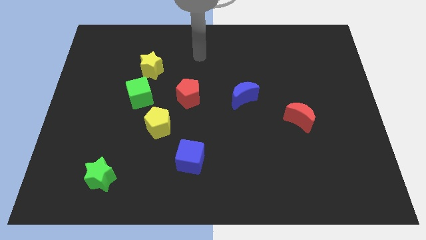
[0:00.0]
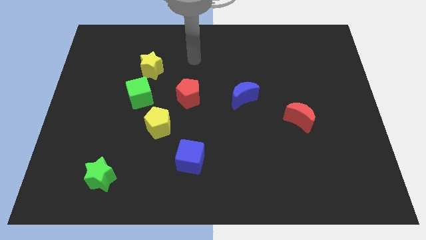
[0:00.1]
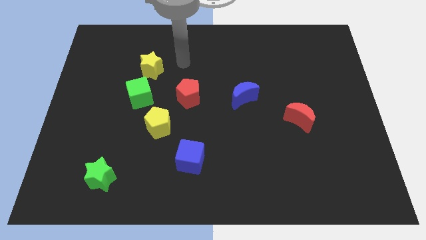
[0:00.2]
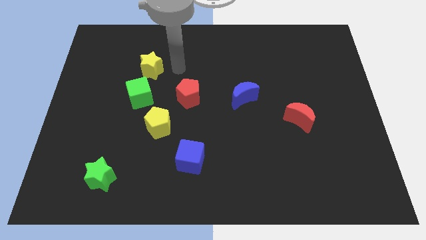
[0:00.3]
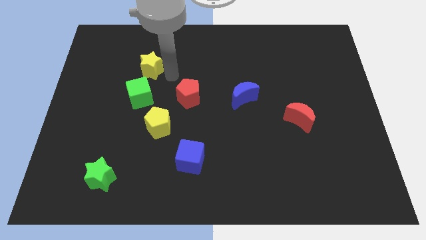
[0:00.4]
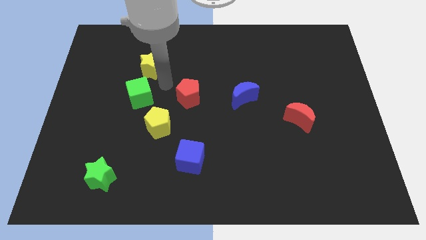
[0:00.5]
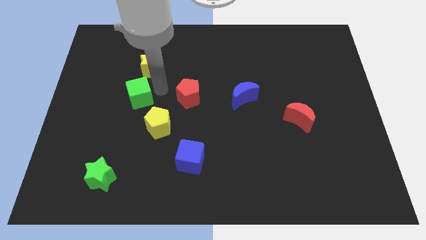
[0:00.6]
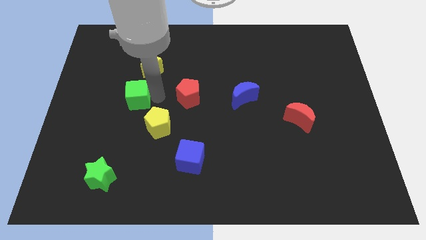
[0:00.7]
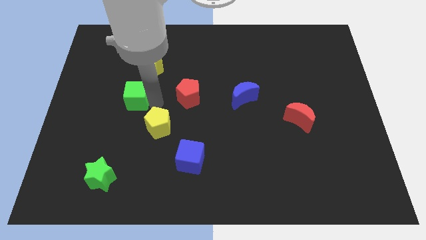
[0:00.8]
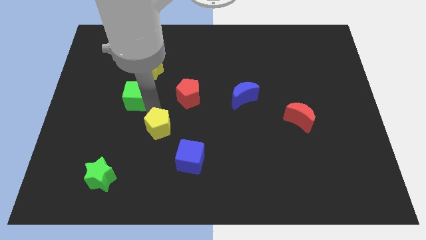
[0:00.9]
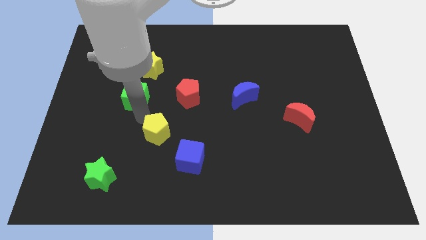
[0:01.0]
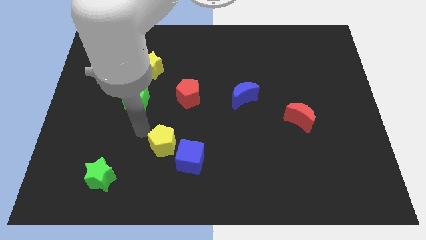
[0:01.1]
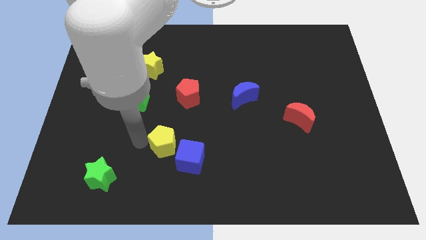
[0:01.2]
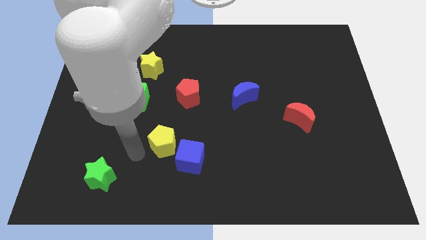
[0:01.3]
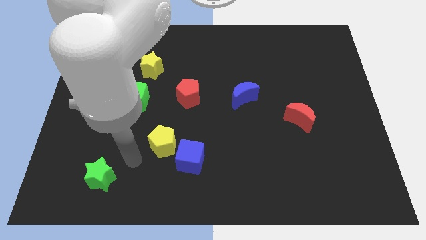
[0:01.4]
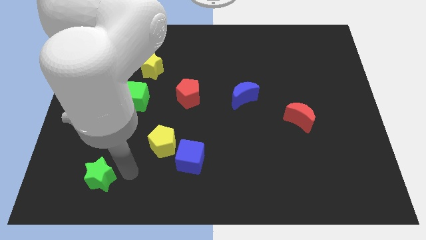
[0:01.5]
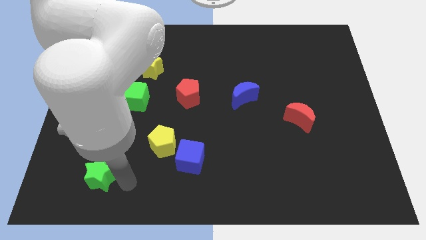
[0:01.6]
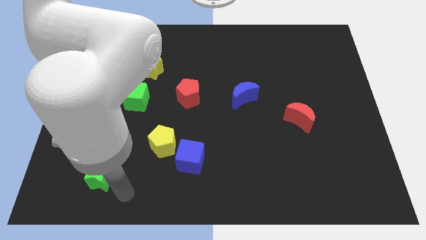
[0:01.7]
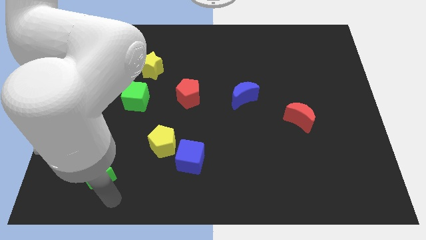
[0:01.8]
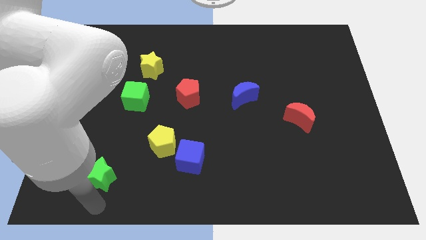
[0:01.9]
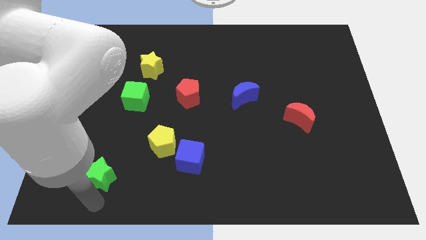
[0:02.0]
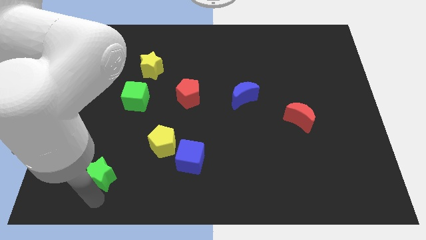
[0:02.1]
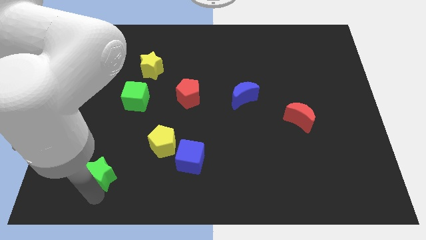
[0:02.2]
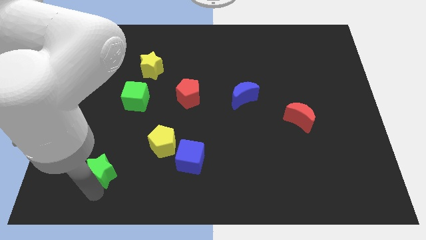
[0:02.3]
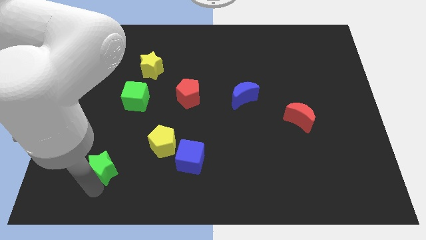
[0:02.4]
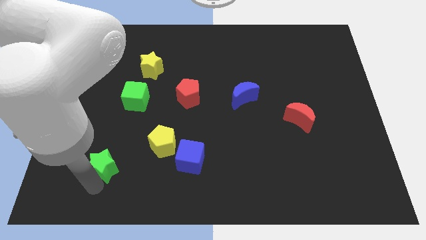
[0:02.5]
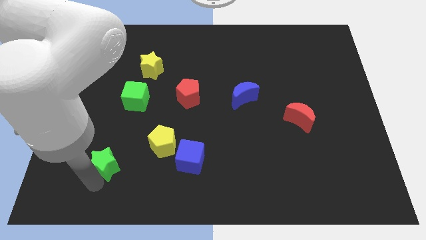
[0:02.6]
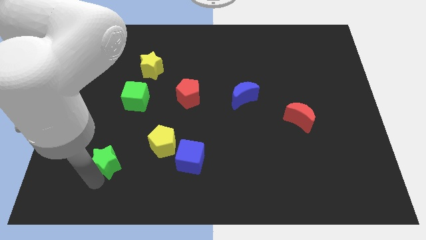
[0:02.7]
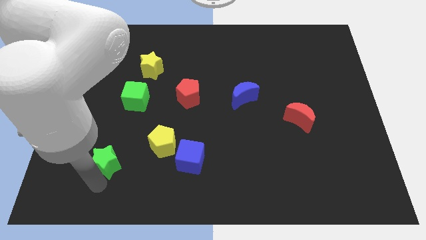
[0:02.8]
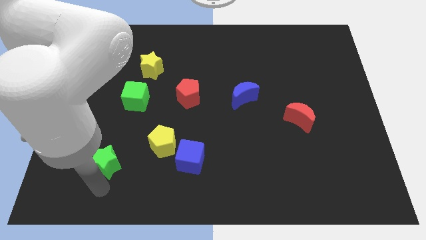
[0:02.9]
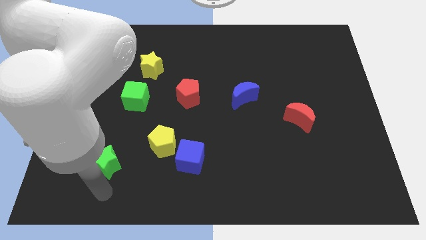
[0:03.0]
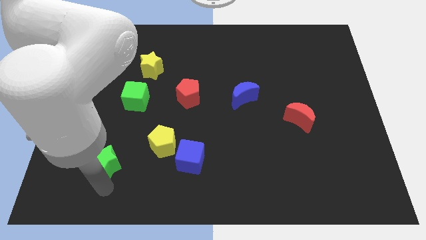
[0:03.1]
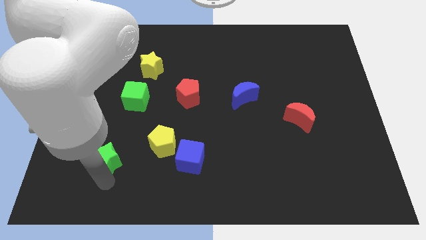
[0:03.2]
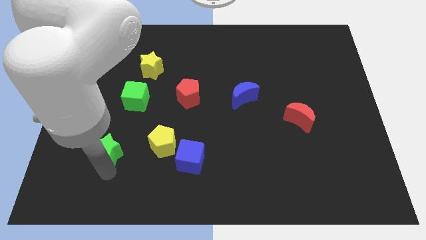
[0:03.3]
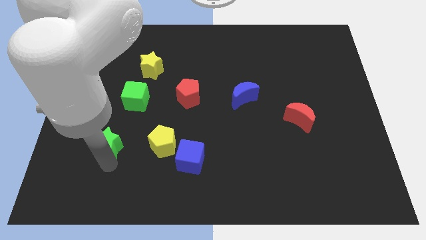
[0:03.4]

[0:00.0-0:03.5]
push the green star upwards a little bit

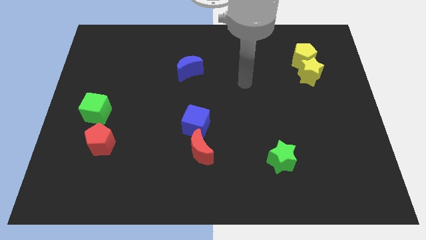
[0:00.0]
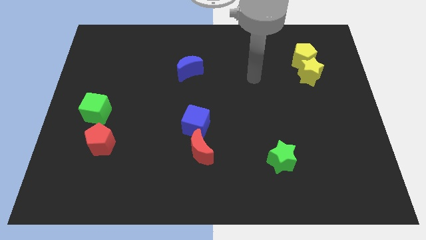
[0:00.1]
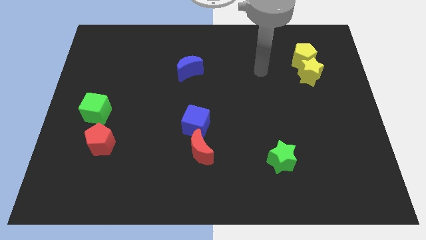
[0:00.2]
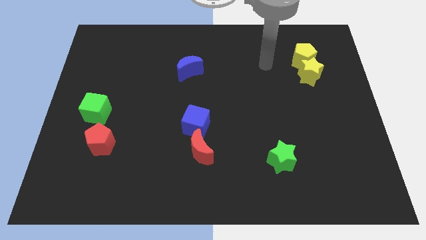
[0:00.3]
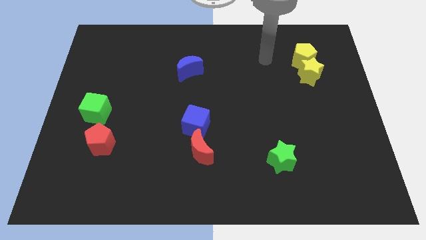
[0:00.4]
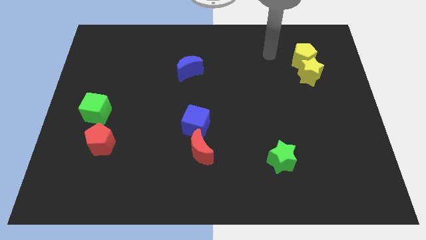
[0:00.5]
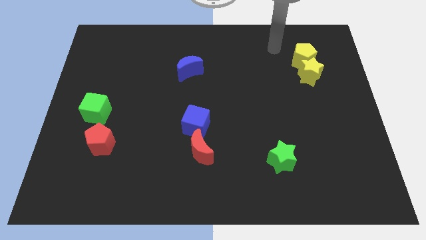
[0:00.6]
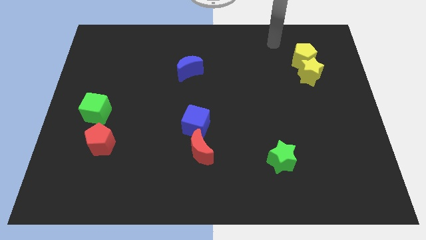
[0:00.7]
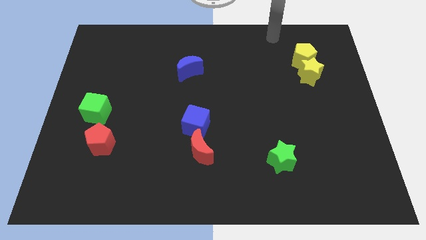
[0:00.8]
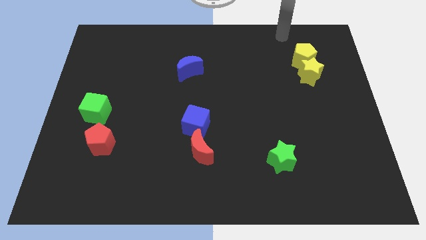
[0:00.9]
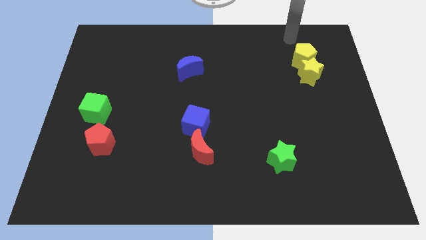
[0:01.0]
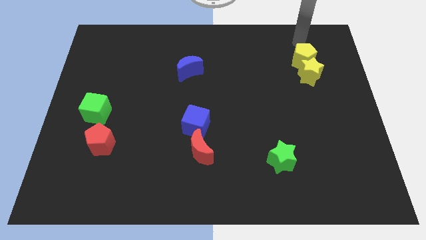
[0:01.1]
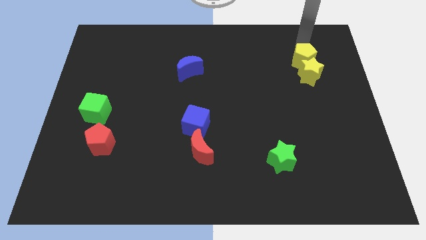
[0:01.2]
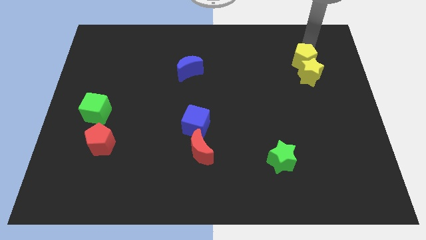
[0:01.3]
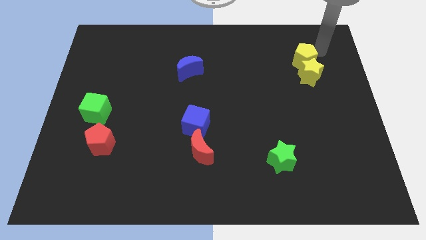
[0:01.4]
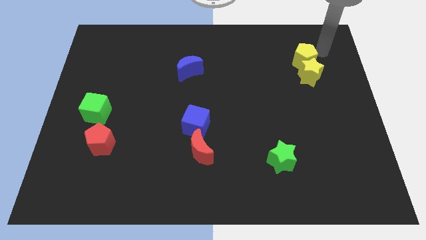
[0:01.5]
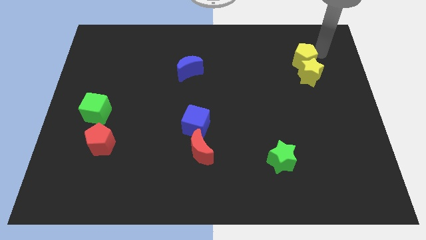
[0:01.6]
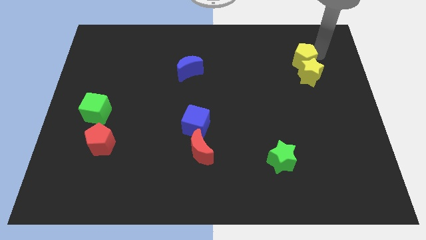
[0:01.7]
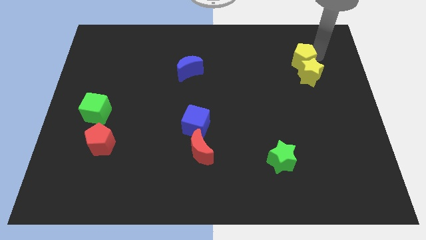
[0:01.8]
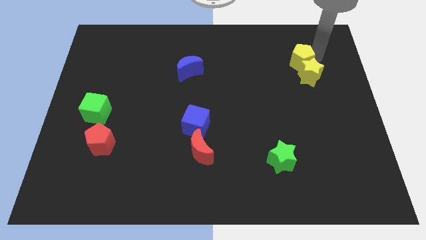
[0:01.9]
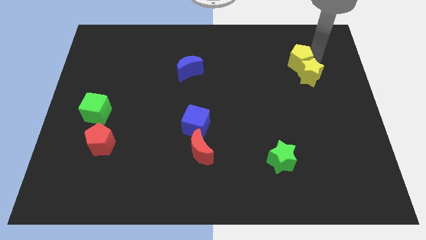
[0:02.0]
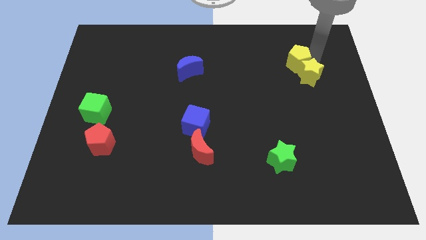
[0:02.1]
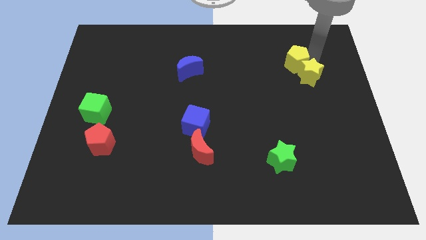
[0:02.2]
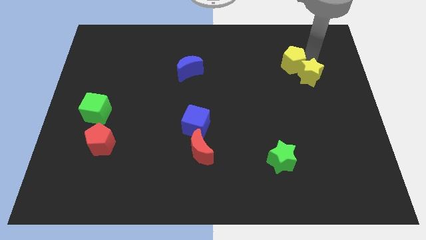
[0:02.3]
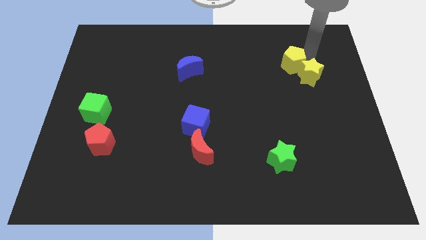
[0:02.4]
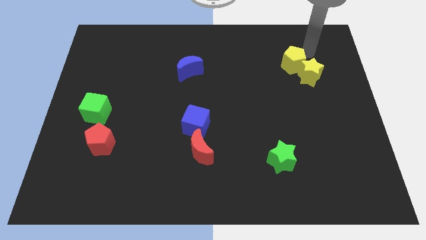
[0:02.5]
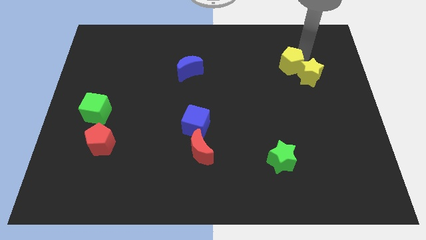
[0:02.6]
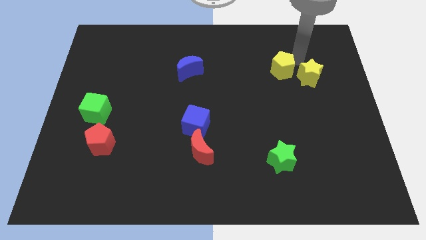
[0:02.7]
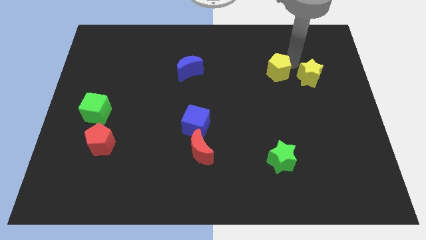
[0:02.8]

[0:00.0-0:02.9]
slightly slide the yellow pentagon downwards and to the left

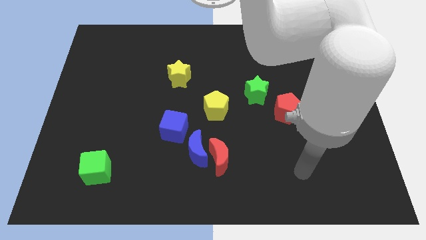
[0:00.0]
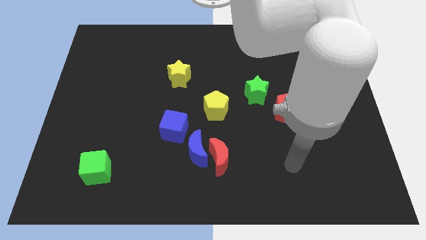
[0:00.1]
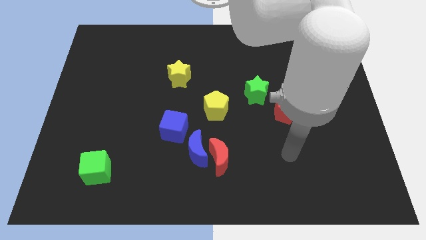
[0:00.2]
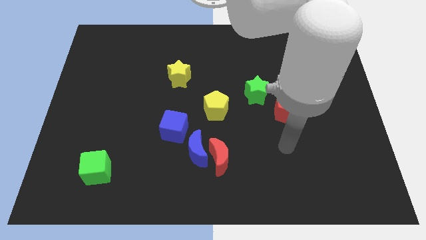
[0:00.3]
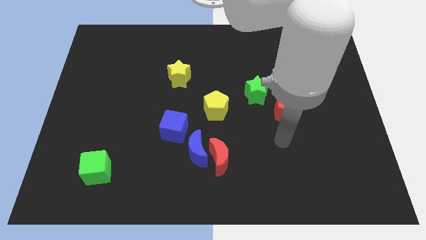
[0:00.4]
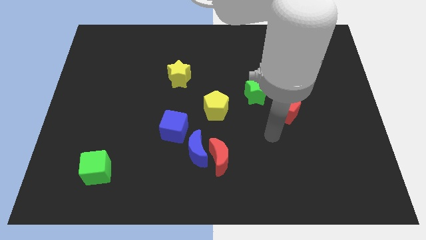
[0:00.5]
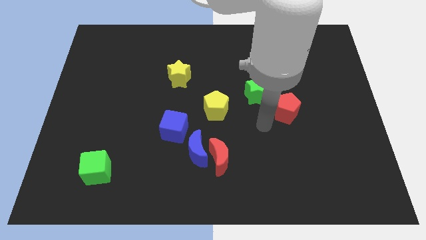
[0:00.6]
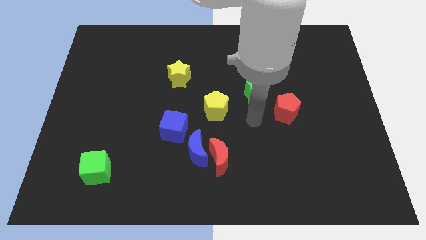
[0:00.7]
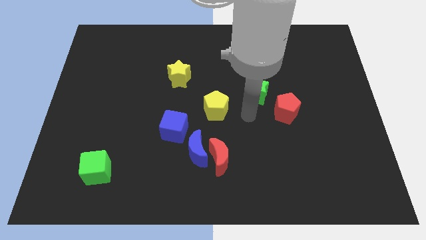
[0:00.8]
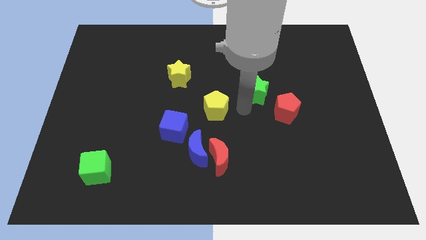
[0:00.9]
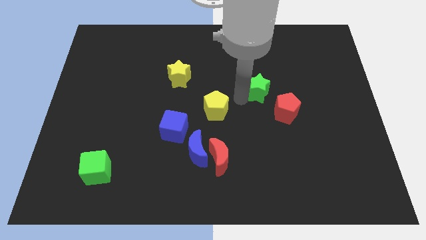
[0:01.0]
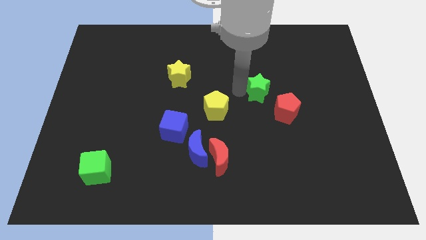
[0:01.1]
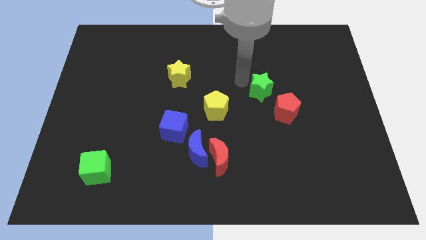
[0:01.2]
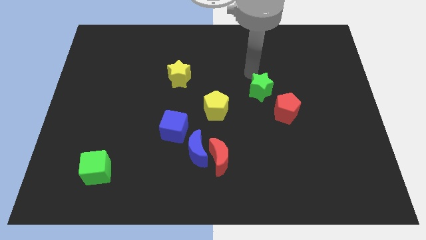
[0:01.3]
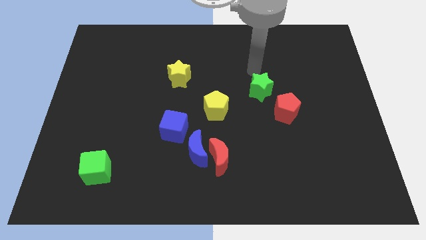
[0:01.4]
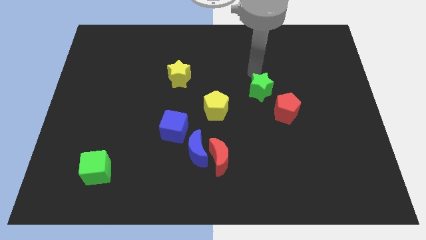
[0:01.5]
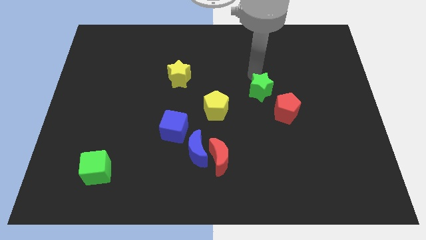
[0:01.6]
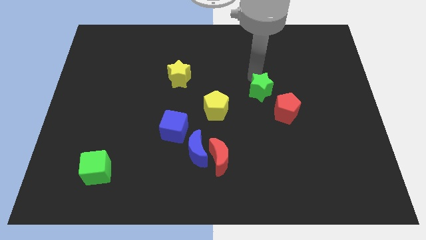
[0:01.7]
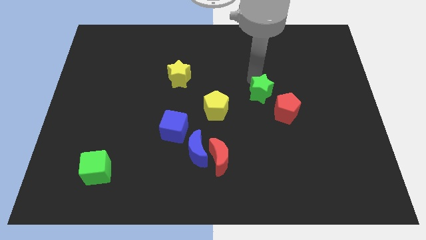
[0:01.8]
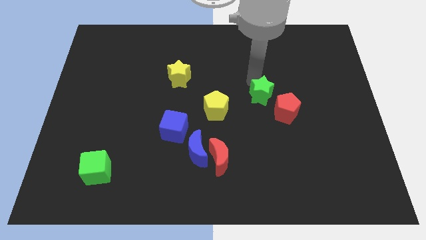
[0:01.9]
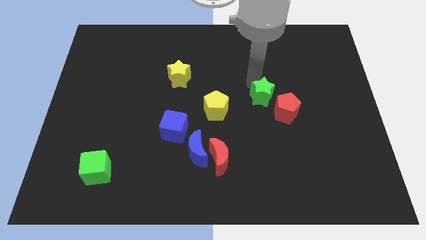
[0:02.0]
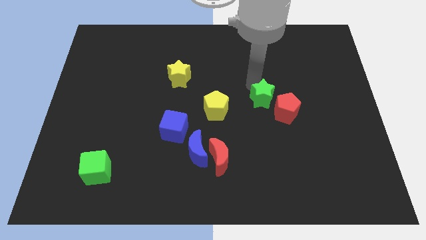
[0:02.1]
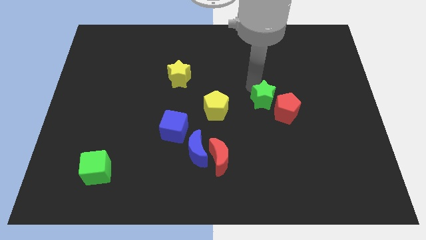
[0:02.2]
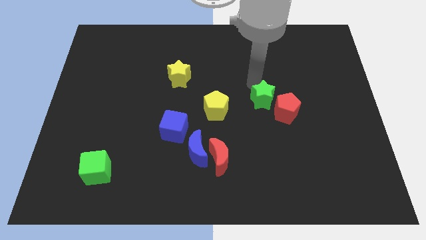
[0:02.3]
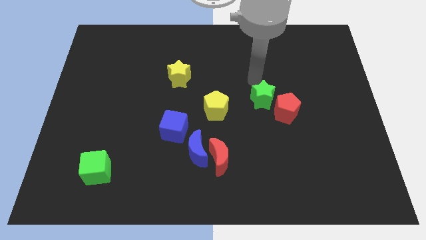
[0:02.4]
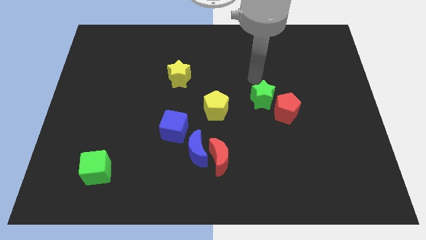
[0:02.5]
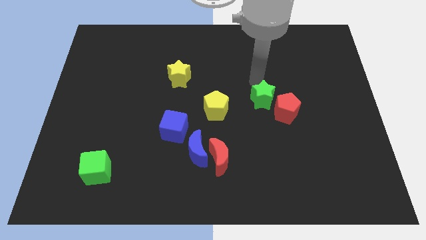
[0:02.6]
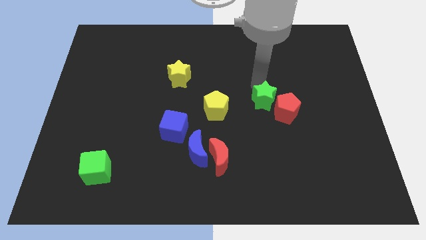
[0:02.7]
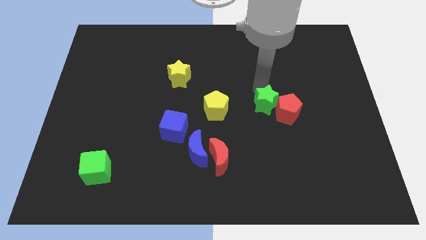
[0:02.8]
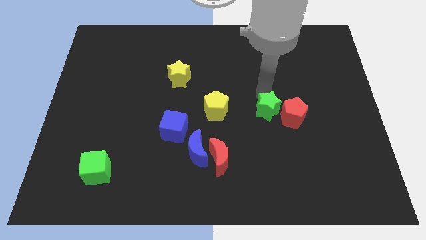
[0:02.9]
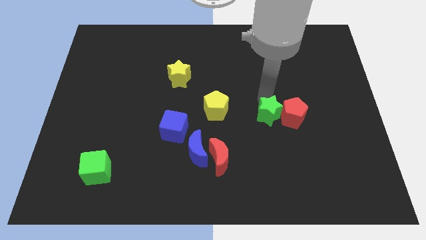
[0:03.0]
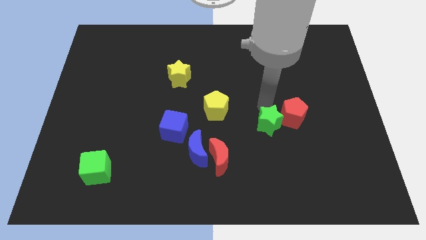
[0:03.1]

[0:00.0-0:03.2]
slightly push the green star down and right
